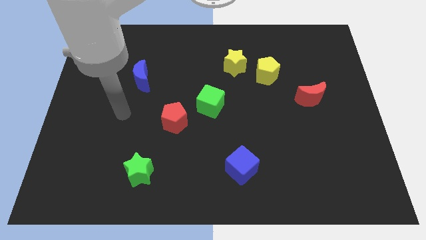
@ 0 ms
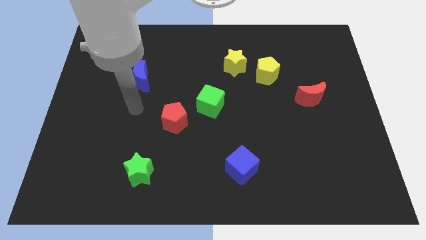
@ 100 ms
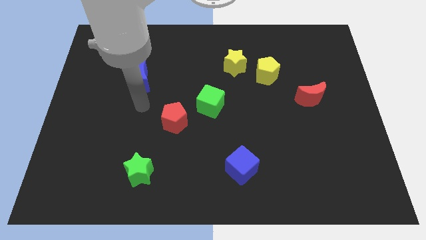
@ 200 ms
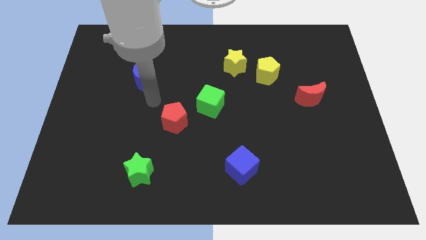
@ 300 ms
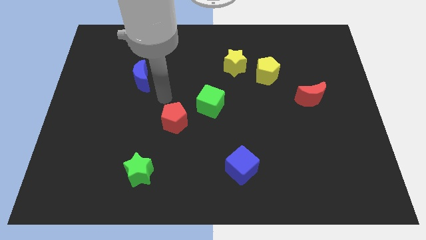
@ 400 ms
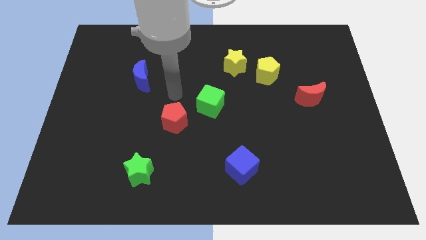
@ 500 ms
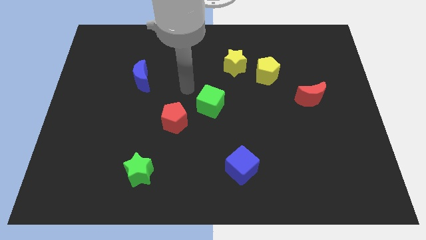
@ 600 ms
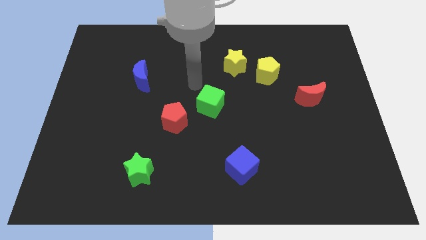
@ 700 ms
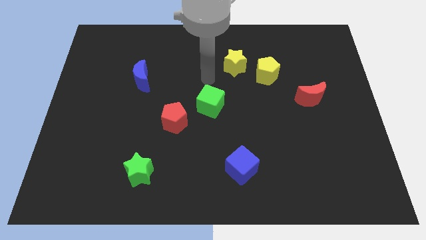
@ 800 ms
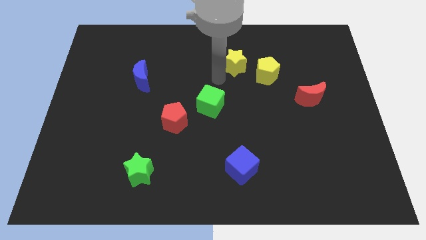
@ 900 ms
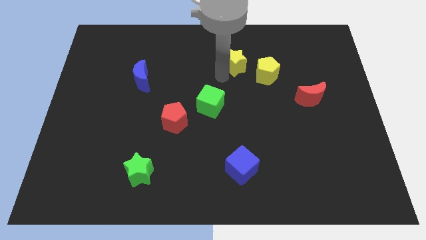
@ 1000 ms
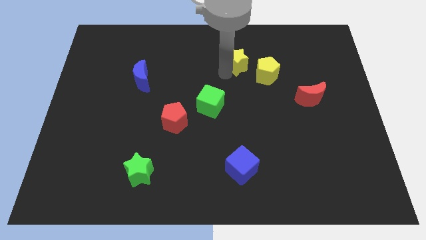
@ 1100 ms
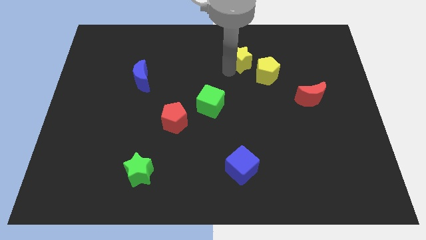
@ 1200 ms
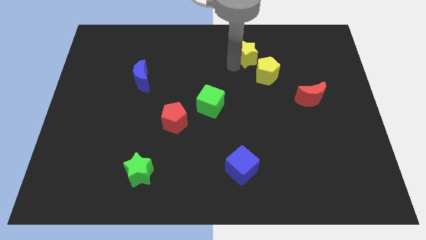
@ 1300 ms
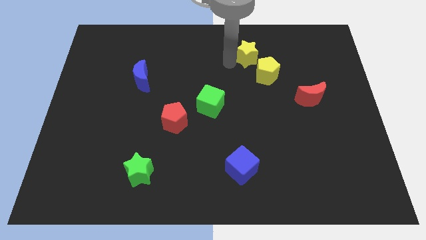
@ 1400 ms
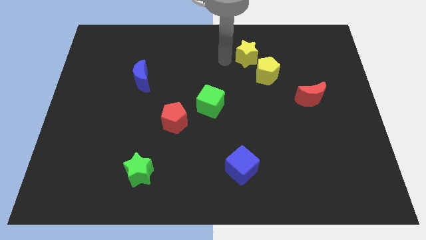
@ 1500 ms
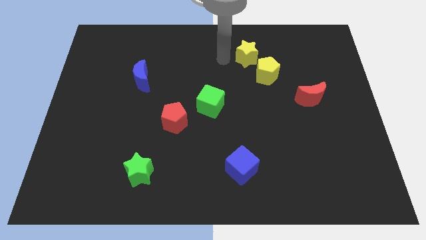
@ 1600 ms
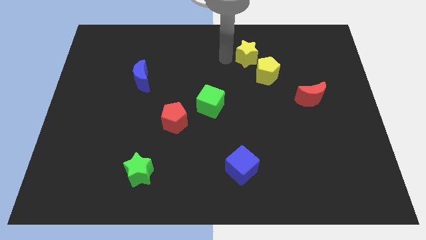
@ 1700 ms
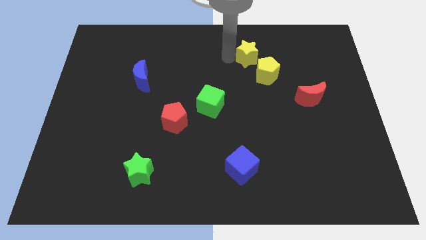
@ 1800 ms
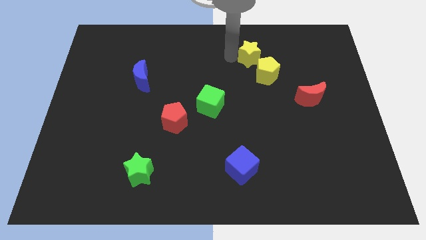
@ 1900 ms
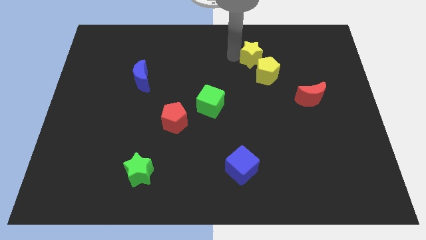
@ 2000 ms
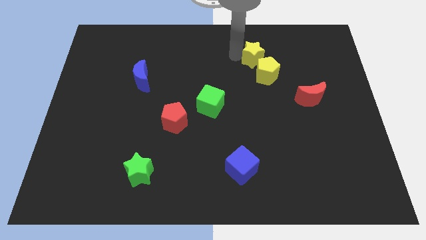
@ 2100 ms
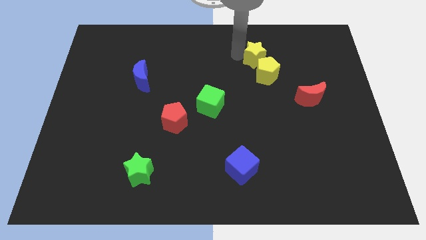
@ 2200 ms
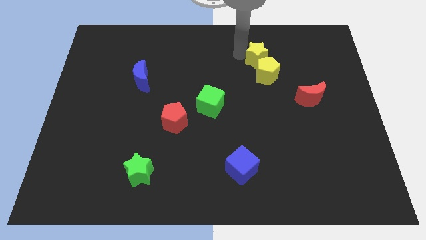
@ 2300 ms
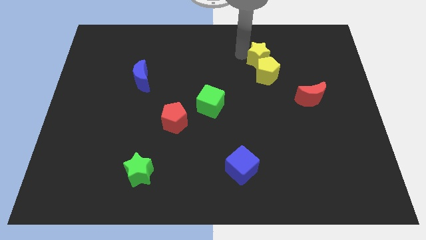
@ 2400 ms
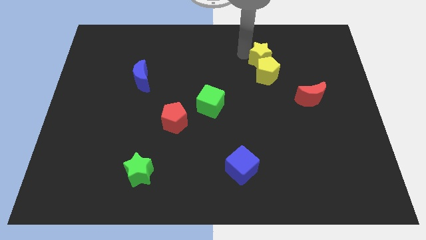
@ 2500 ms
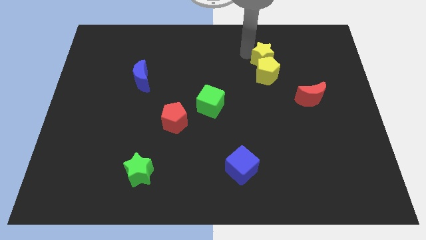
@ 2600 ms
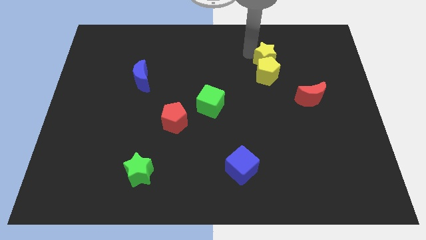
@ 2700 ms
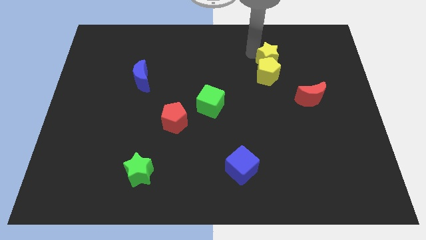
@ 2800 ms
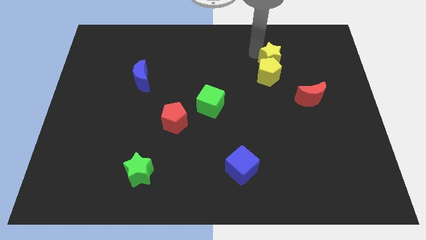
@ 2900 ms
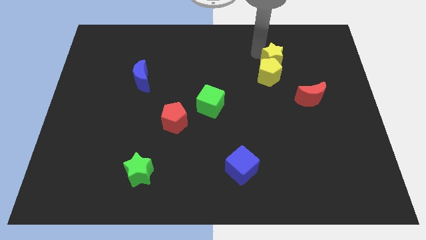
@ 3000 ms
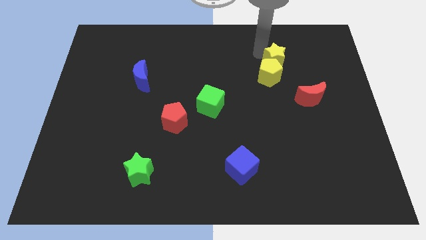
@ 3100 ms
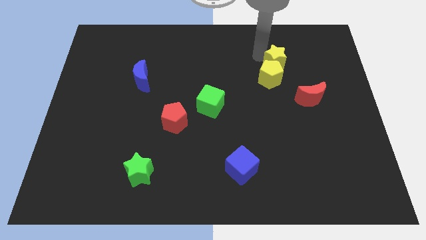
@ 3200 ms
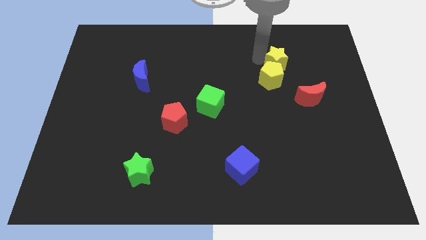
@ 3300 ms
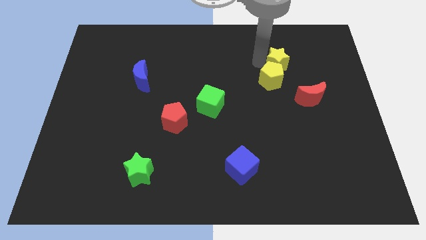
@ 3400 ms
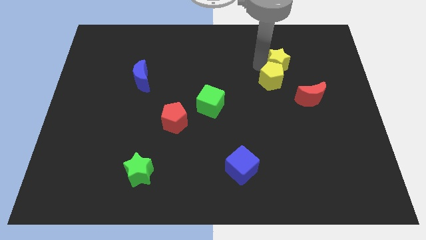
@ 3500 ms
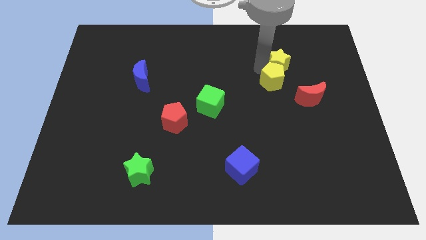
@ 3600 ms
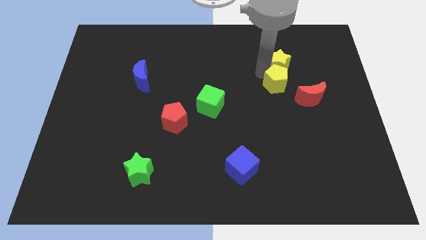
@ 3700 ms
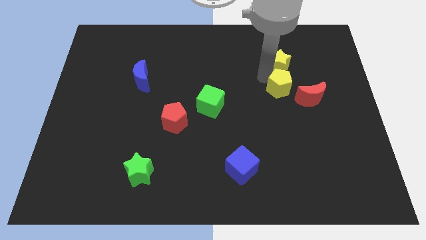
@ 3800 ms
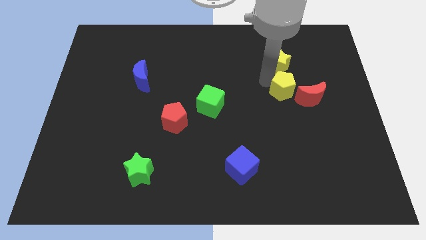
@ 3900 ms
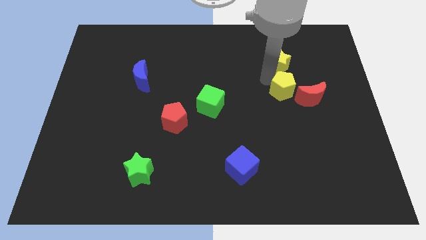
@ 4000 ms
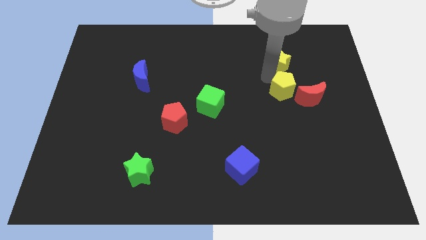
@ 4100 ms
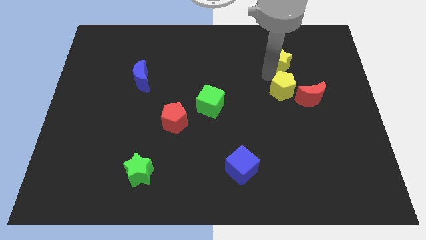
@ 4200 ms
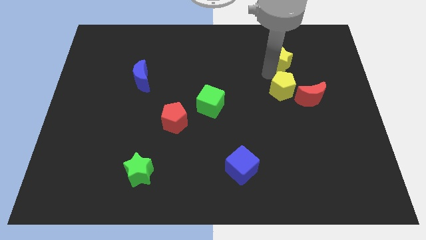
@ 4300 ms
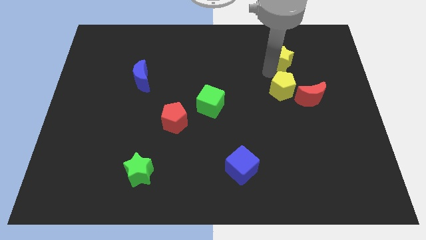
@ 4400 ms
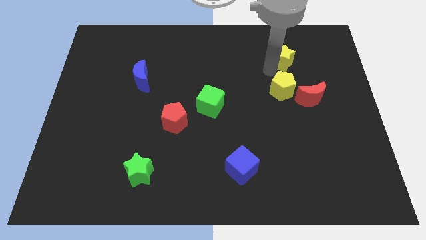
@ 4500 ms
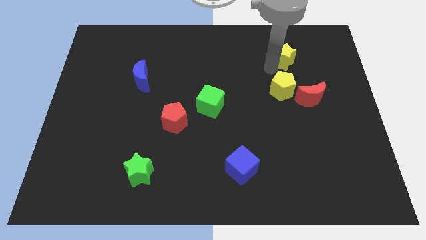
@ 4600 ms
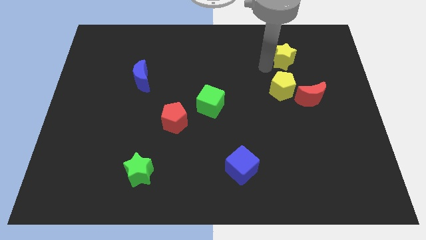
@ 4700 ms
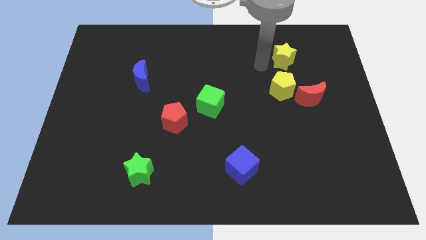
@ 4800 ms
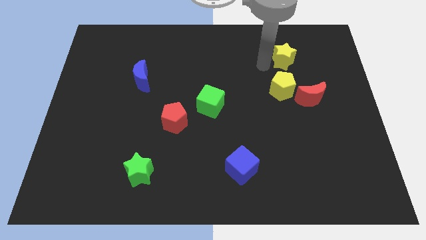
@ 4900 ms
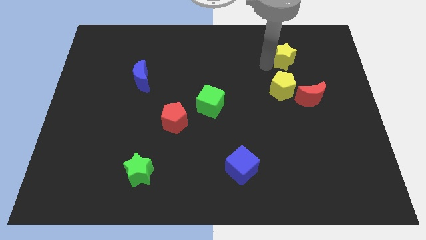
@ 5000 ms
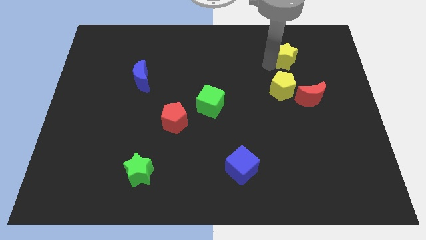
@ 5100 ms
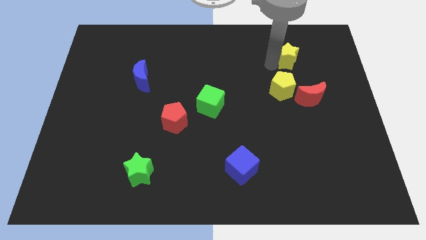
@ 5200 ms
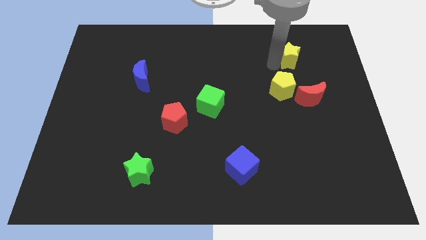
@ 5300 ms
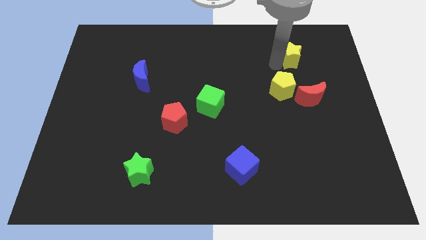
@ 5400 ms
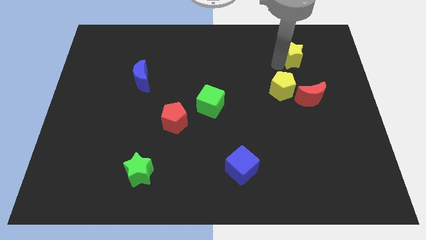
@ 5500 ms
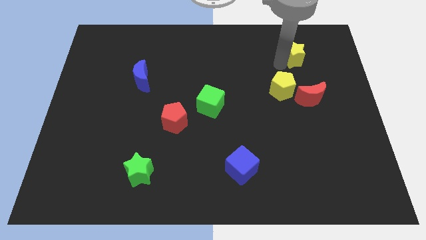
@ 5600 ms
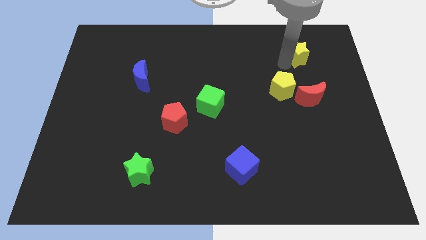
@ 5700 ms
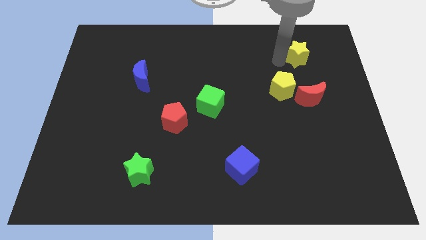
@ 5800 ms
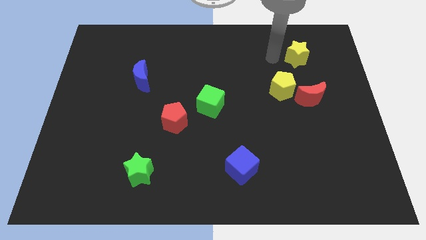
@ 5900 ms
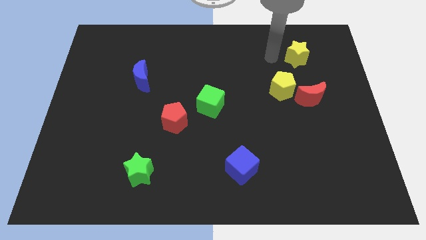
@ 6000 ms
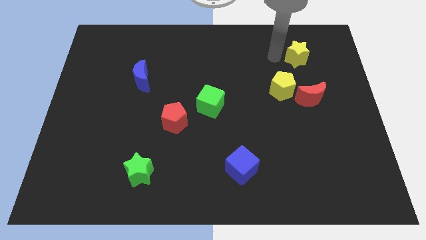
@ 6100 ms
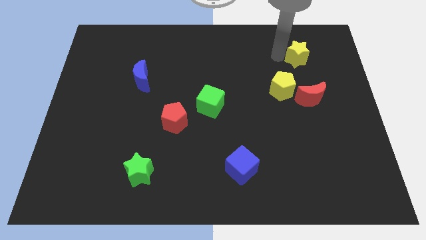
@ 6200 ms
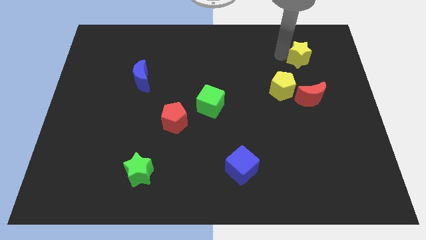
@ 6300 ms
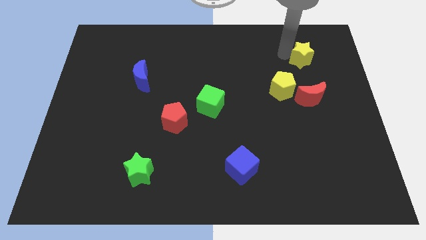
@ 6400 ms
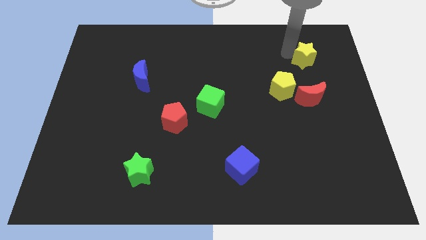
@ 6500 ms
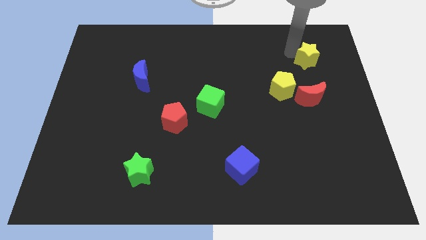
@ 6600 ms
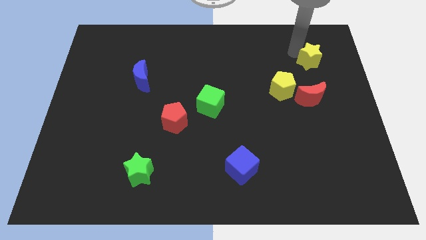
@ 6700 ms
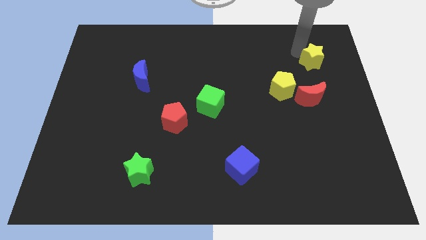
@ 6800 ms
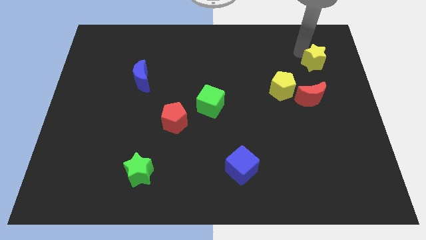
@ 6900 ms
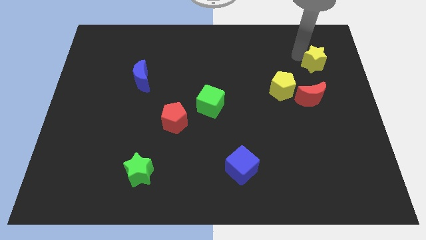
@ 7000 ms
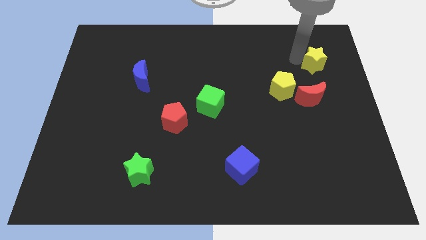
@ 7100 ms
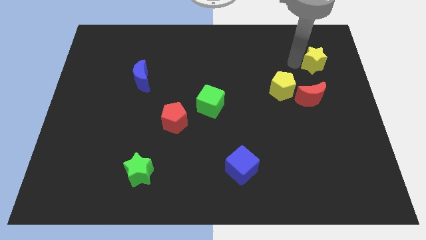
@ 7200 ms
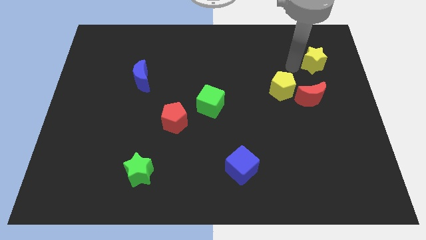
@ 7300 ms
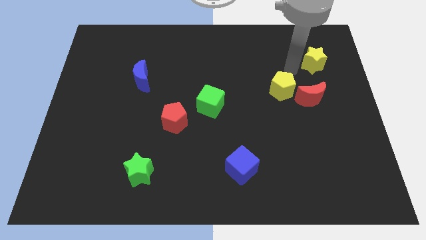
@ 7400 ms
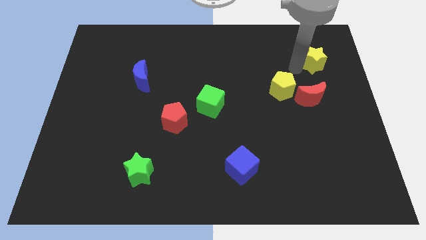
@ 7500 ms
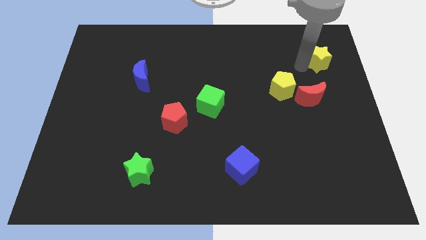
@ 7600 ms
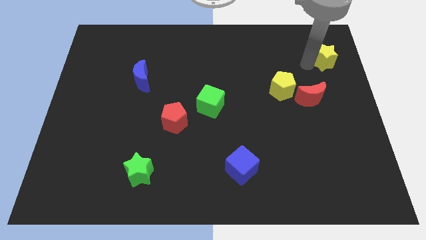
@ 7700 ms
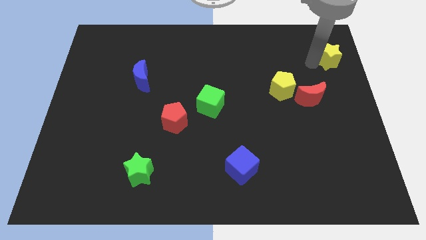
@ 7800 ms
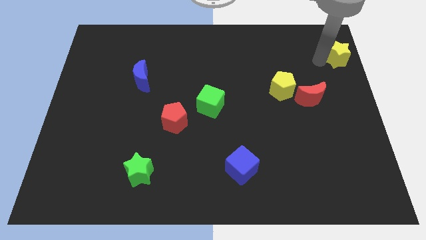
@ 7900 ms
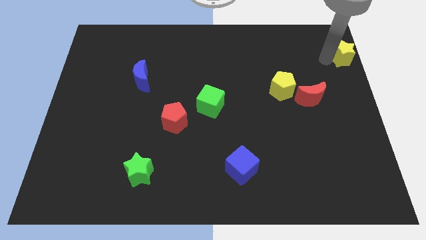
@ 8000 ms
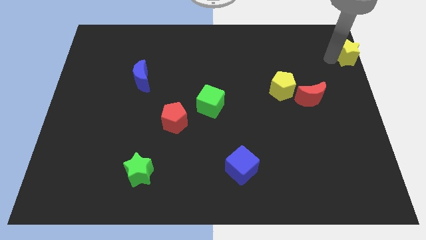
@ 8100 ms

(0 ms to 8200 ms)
slide the yellow star to the top right
